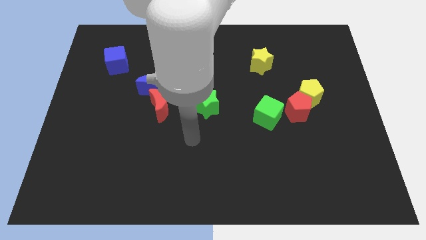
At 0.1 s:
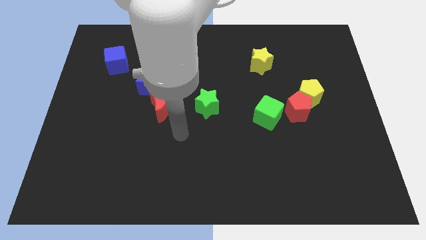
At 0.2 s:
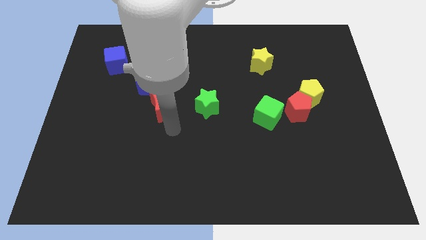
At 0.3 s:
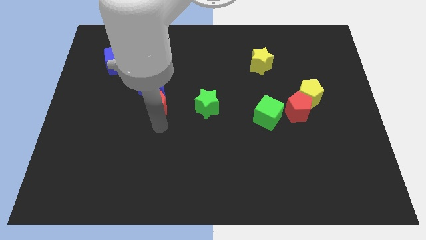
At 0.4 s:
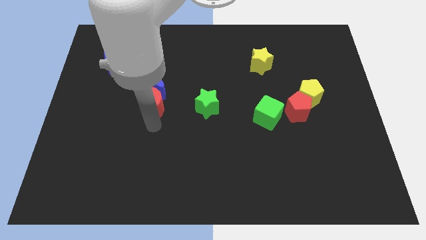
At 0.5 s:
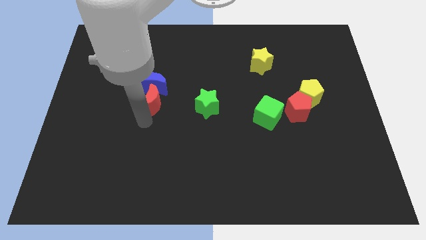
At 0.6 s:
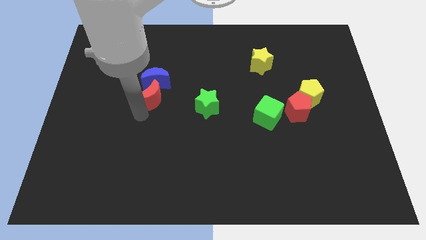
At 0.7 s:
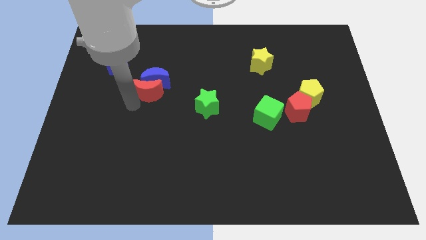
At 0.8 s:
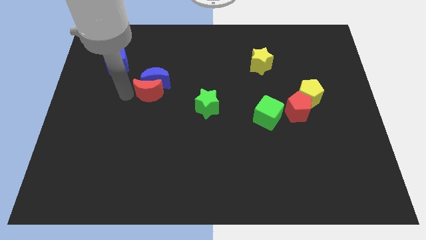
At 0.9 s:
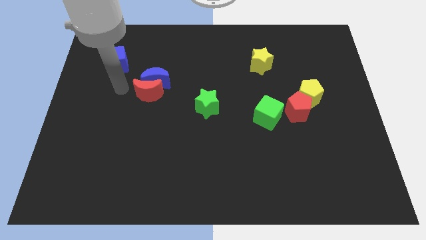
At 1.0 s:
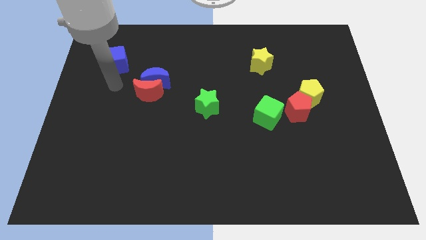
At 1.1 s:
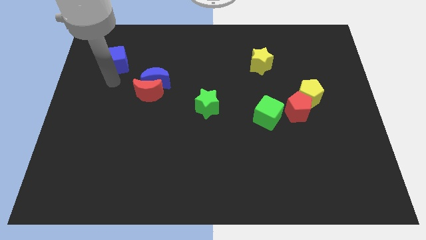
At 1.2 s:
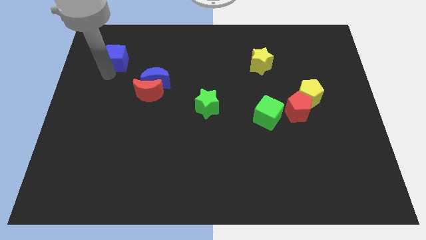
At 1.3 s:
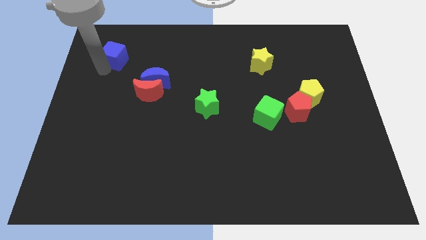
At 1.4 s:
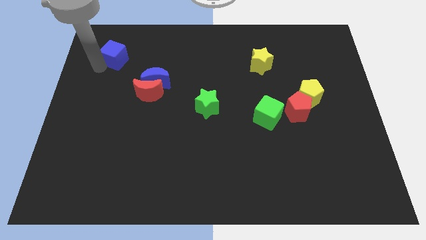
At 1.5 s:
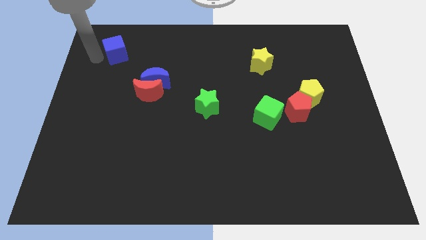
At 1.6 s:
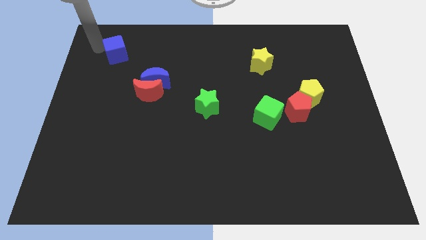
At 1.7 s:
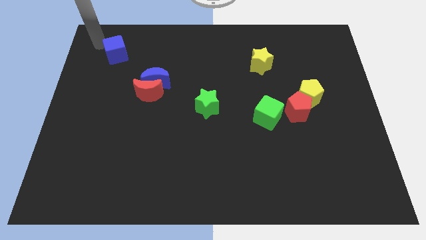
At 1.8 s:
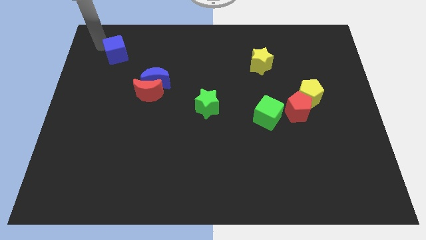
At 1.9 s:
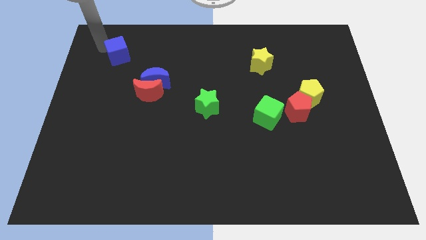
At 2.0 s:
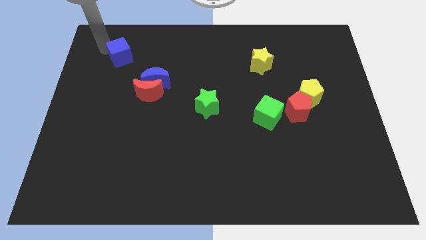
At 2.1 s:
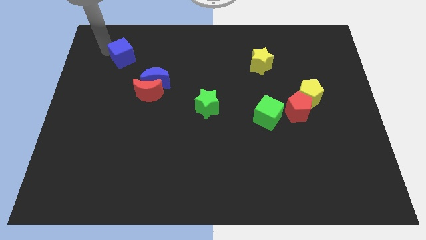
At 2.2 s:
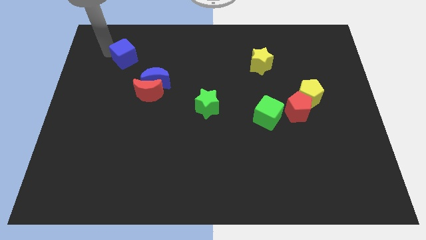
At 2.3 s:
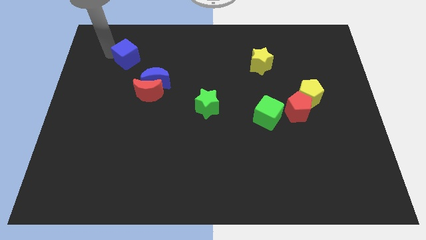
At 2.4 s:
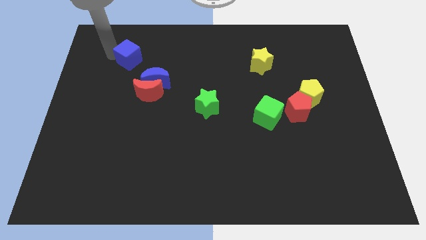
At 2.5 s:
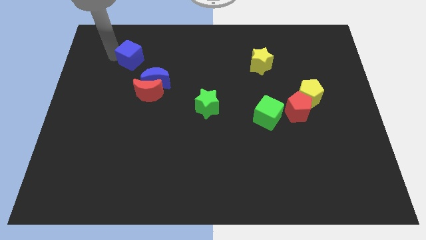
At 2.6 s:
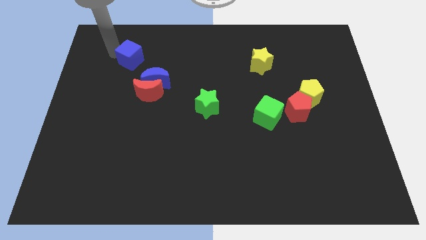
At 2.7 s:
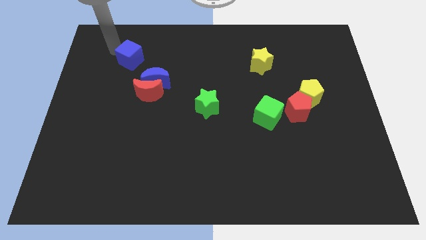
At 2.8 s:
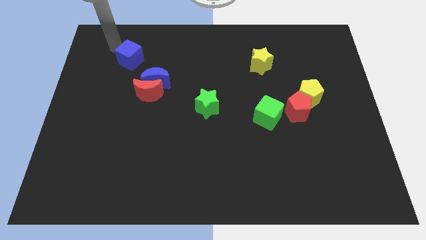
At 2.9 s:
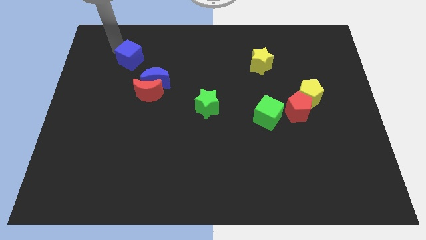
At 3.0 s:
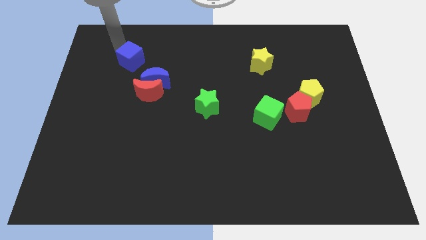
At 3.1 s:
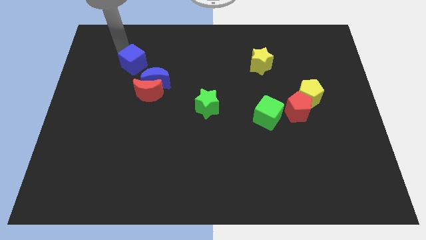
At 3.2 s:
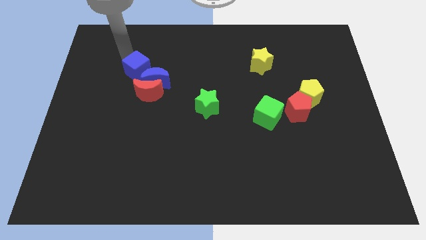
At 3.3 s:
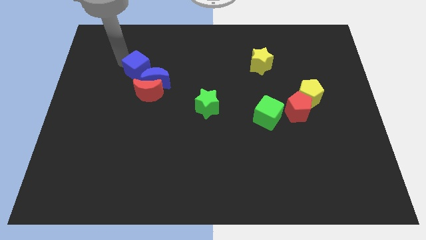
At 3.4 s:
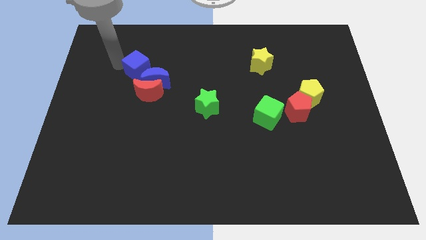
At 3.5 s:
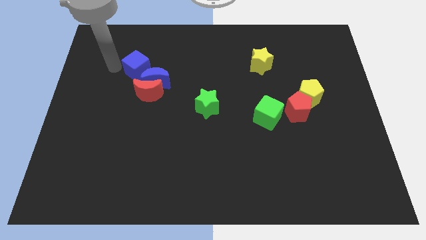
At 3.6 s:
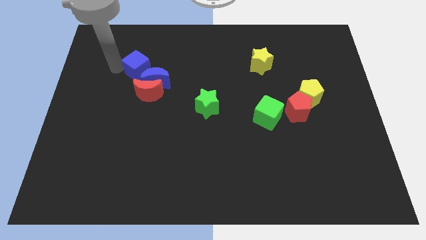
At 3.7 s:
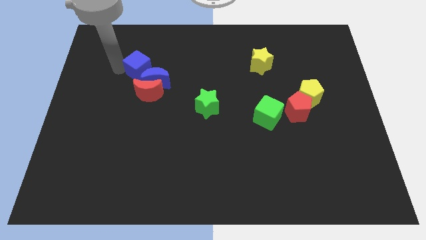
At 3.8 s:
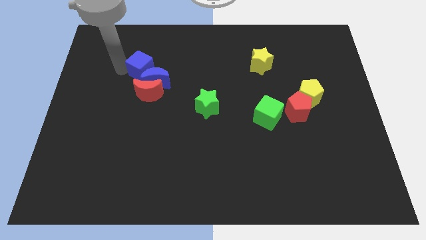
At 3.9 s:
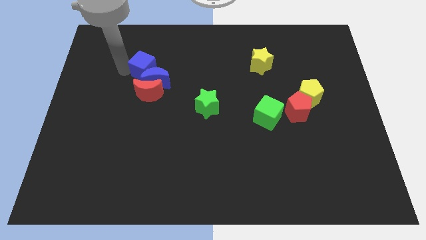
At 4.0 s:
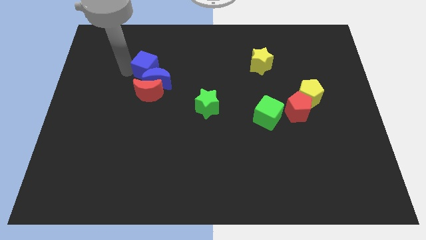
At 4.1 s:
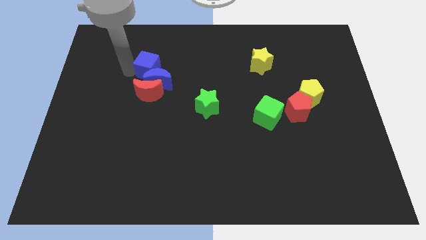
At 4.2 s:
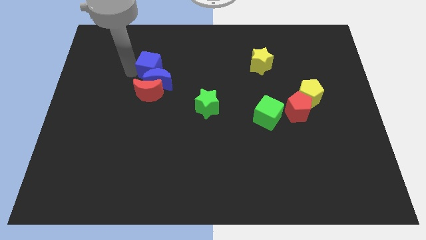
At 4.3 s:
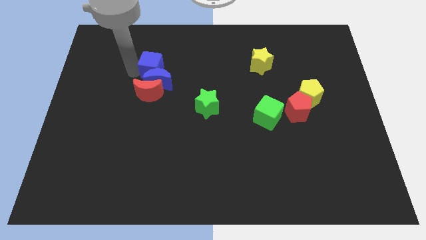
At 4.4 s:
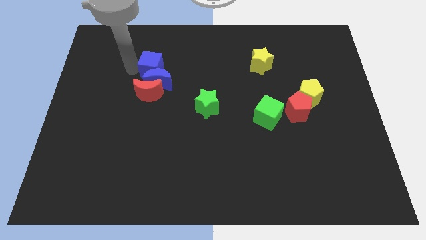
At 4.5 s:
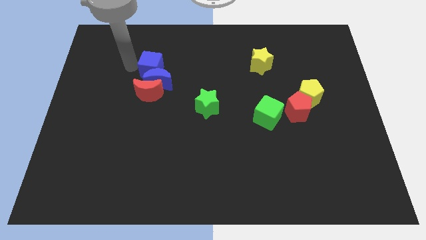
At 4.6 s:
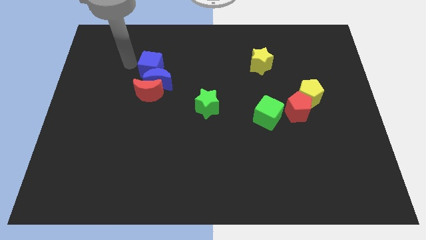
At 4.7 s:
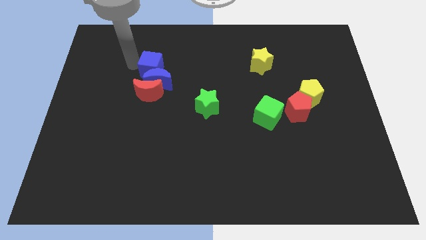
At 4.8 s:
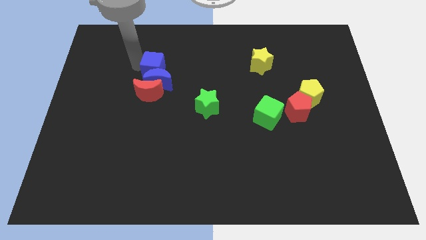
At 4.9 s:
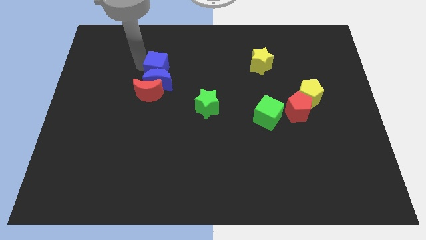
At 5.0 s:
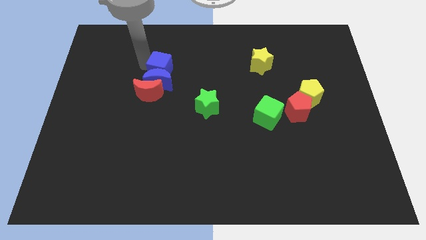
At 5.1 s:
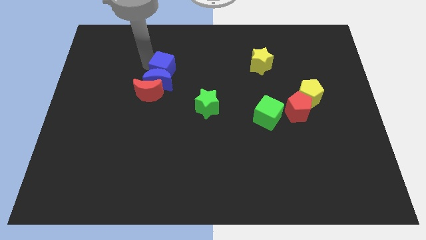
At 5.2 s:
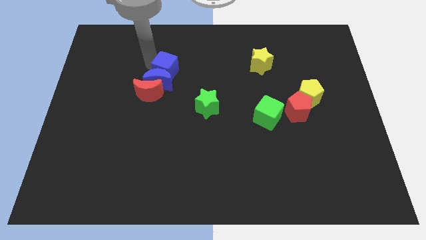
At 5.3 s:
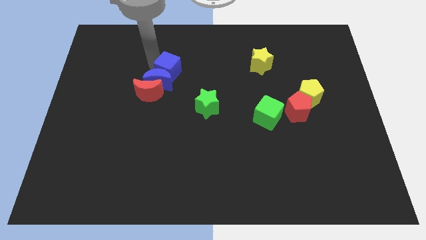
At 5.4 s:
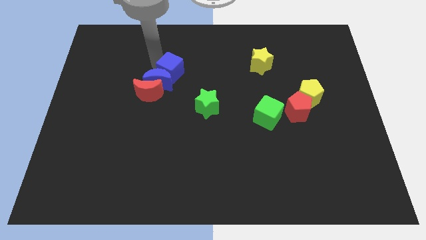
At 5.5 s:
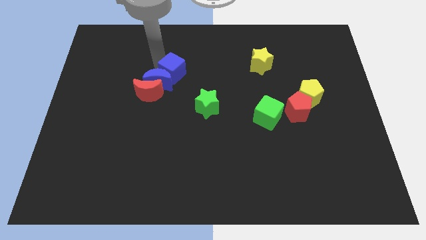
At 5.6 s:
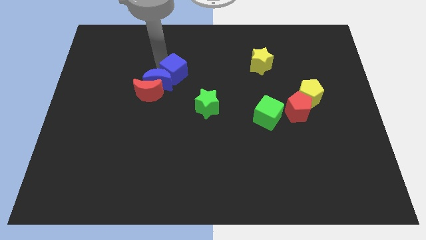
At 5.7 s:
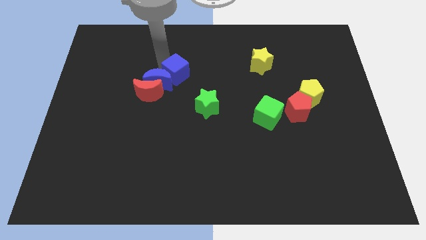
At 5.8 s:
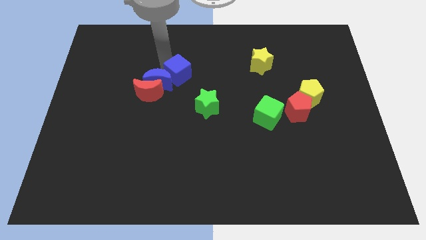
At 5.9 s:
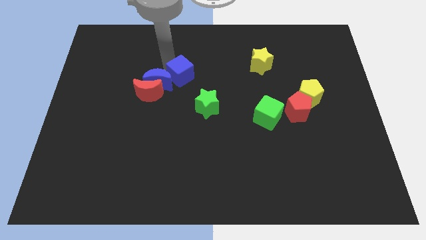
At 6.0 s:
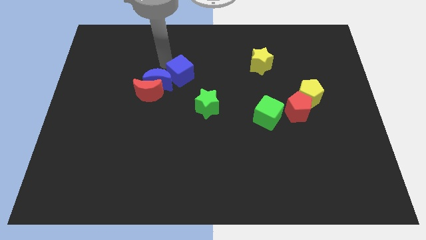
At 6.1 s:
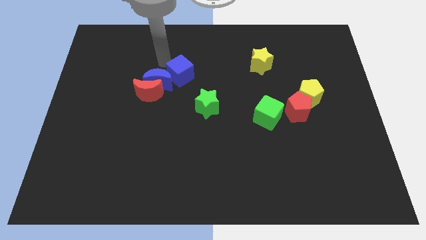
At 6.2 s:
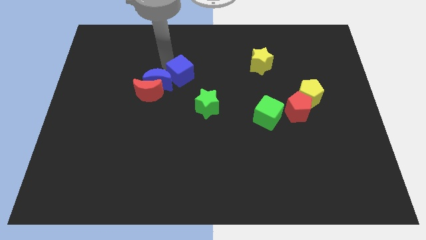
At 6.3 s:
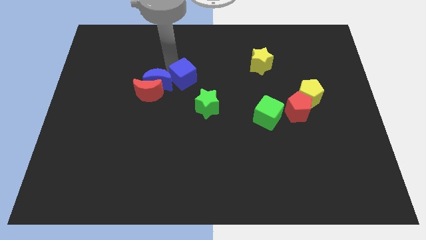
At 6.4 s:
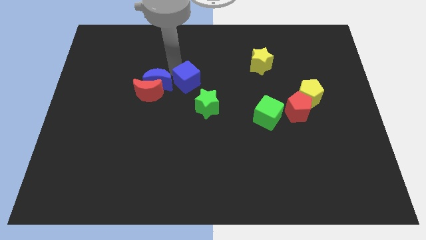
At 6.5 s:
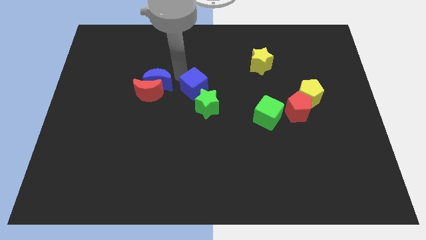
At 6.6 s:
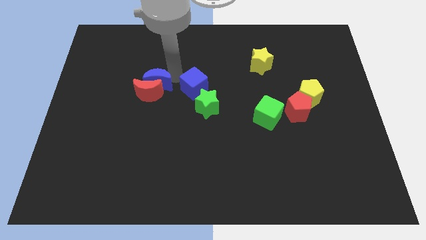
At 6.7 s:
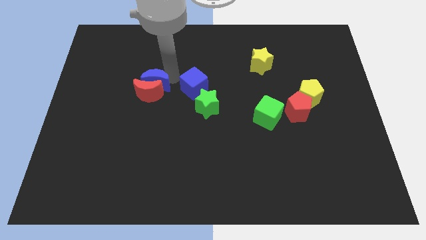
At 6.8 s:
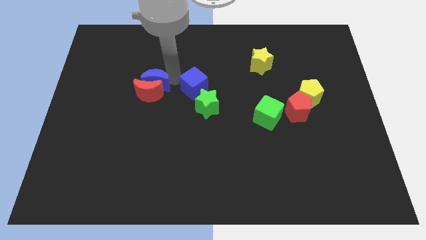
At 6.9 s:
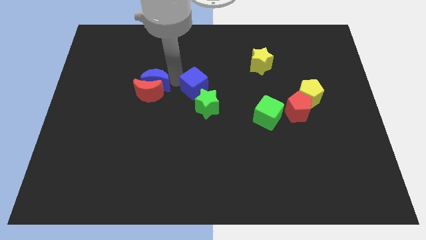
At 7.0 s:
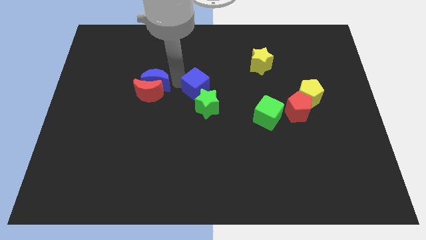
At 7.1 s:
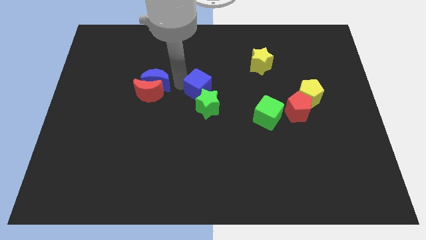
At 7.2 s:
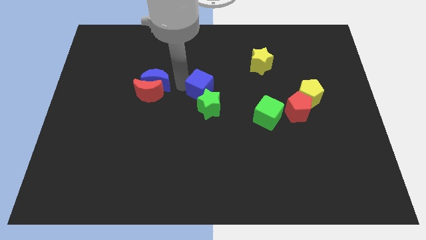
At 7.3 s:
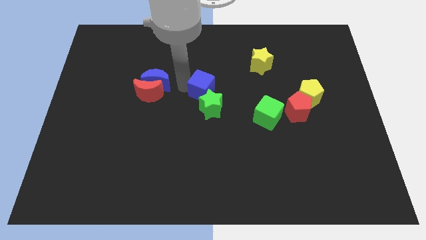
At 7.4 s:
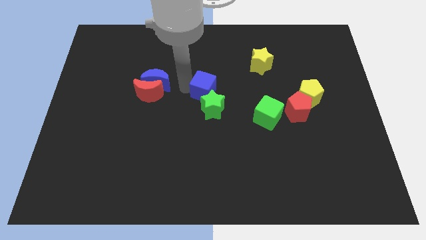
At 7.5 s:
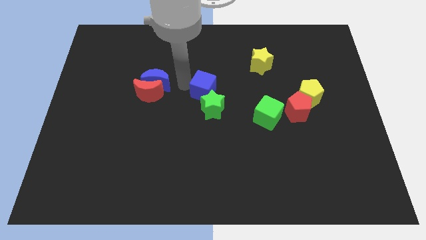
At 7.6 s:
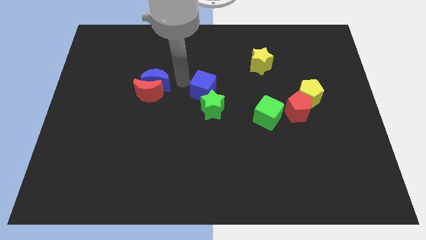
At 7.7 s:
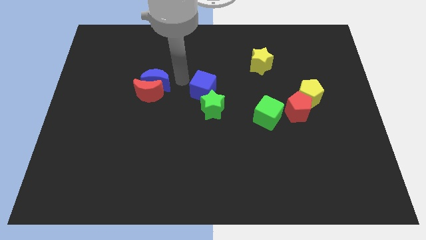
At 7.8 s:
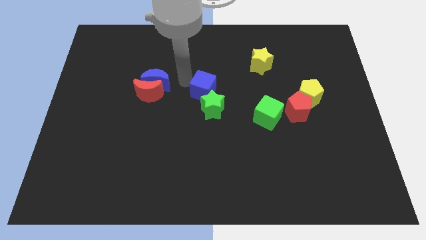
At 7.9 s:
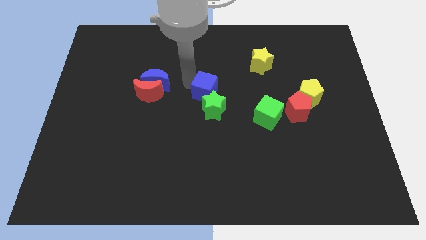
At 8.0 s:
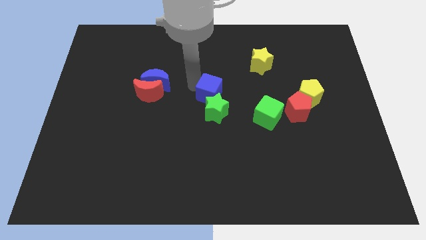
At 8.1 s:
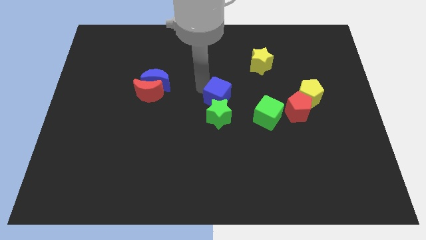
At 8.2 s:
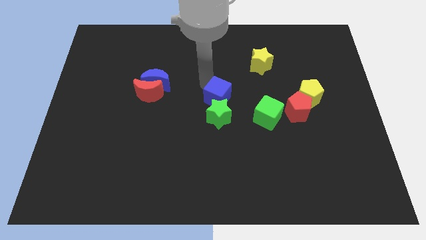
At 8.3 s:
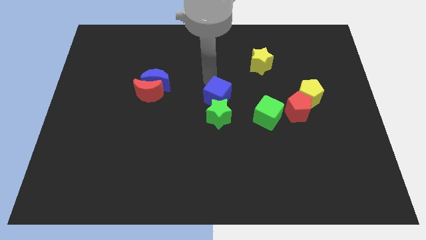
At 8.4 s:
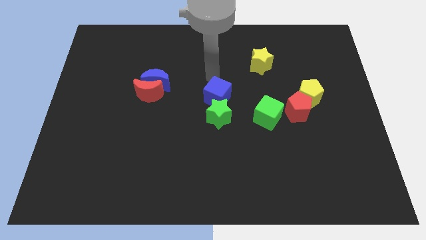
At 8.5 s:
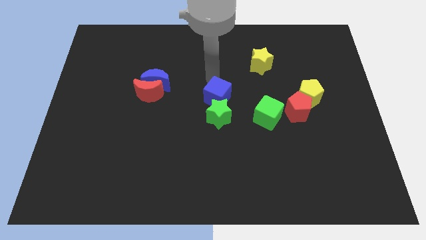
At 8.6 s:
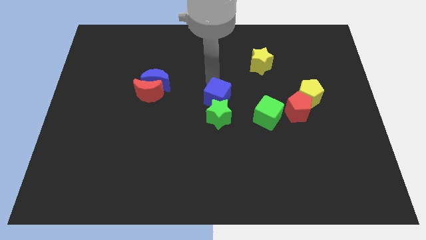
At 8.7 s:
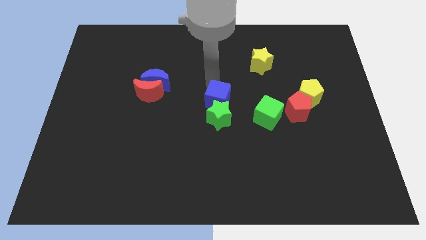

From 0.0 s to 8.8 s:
slide the blue cube to the left of the green cube
